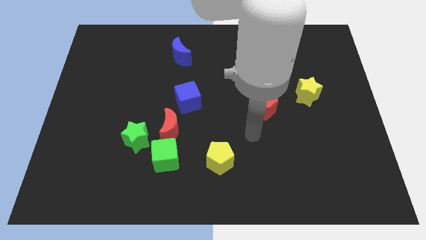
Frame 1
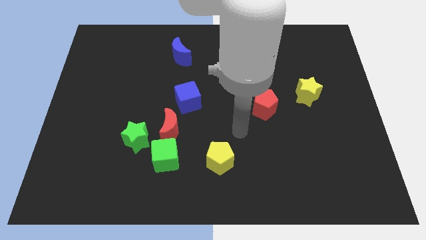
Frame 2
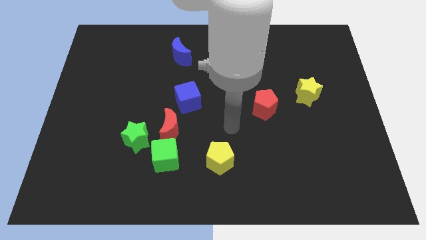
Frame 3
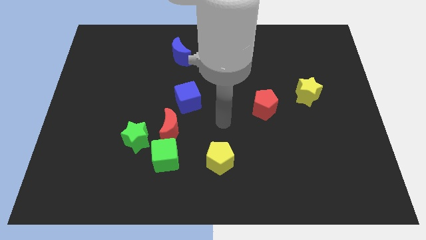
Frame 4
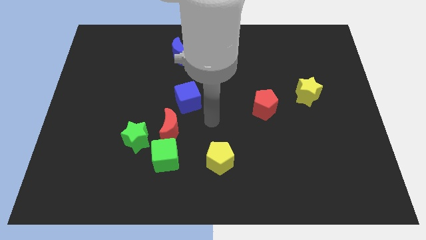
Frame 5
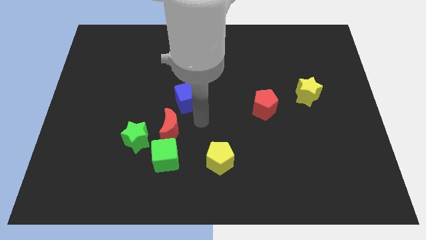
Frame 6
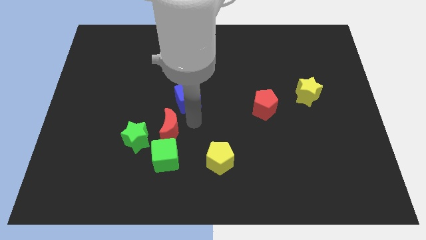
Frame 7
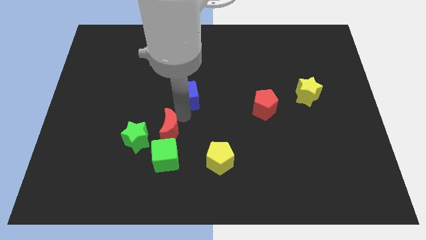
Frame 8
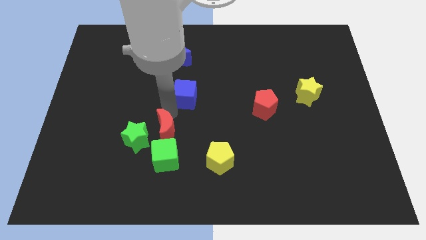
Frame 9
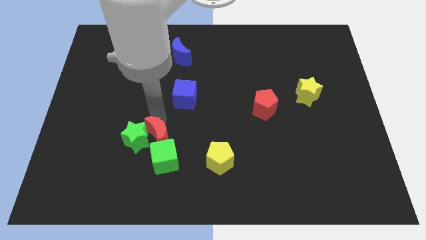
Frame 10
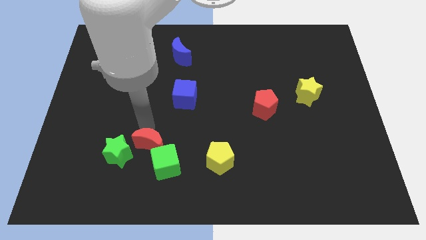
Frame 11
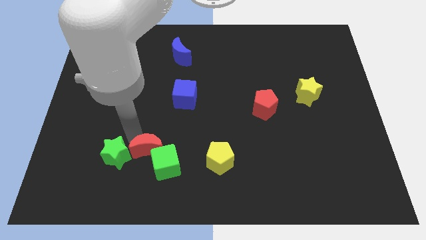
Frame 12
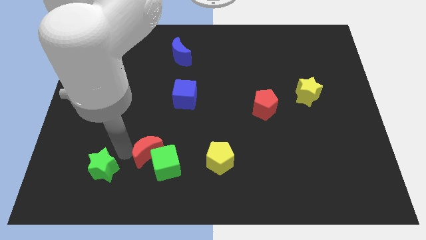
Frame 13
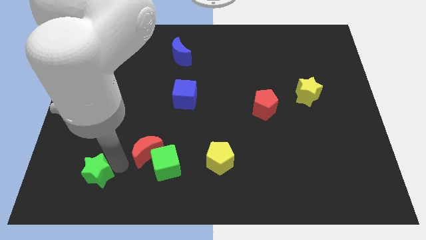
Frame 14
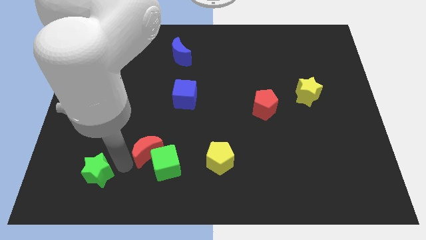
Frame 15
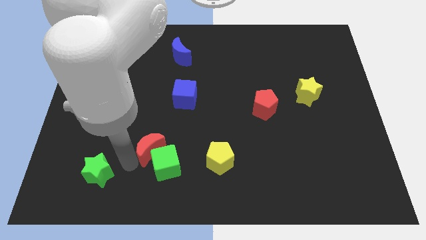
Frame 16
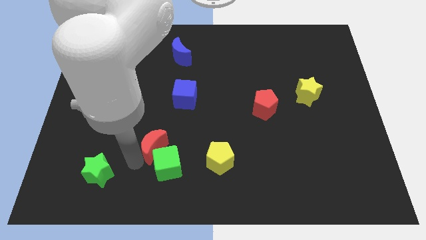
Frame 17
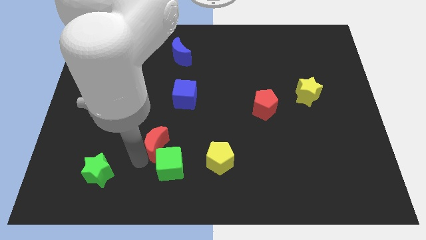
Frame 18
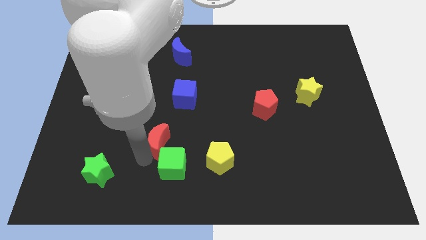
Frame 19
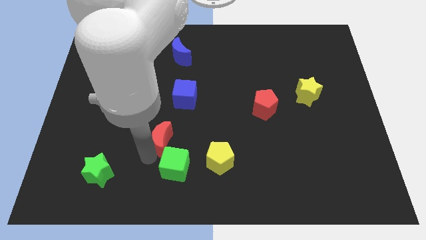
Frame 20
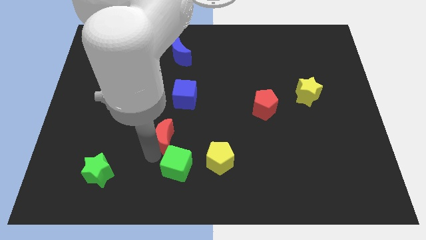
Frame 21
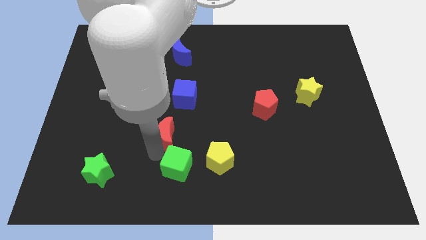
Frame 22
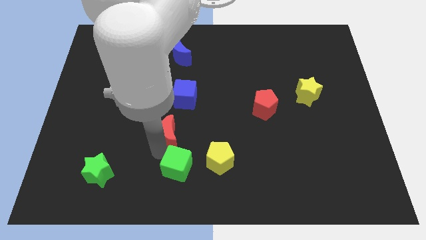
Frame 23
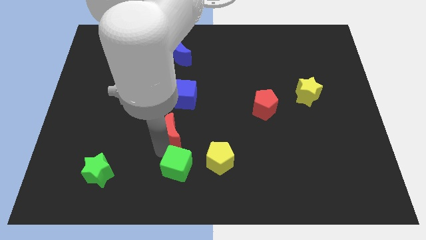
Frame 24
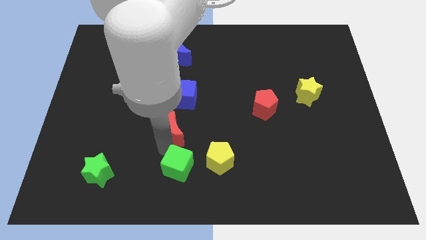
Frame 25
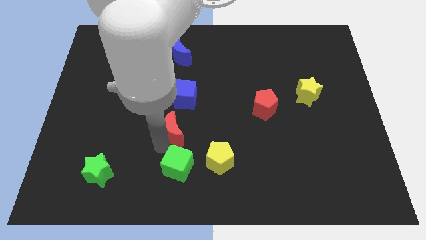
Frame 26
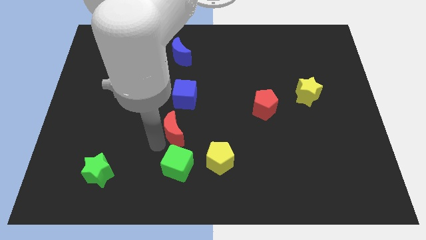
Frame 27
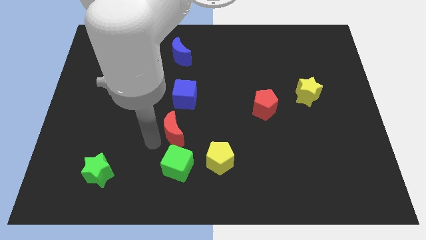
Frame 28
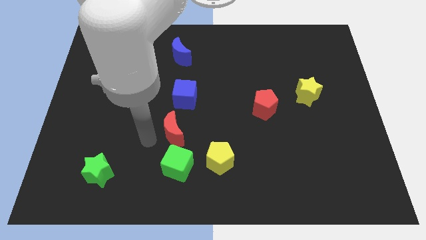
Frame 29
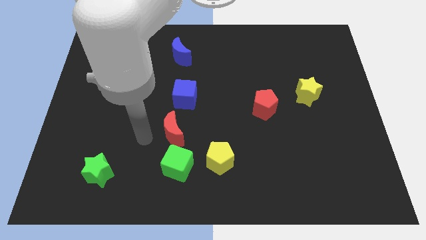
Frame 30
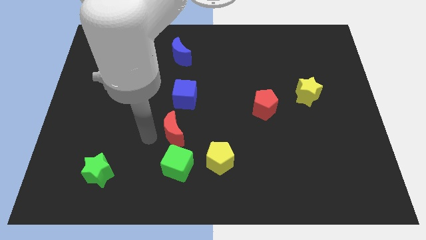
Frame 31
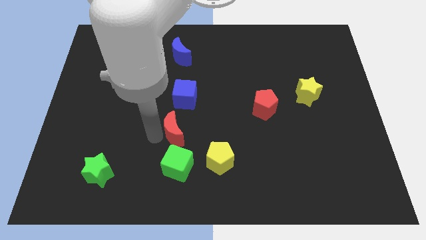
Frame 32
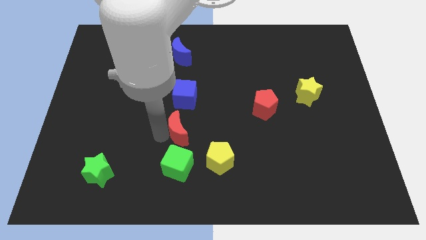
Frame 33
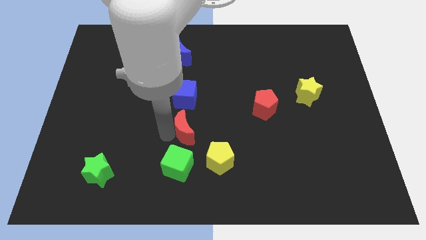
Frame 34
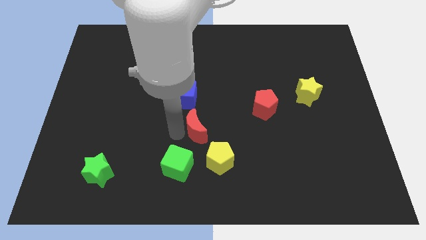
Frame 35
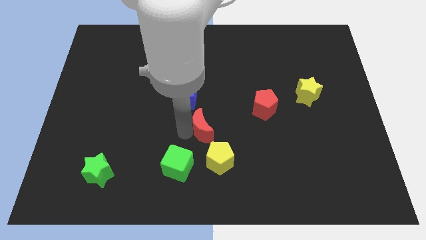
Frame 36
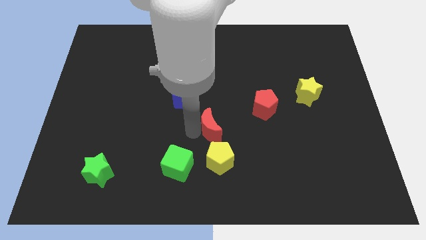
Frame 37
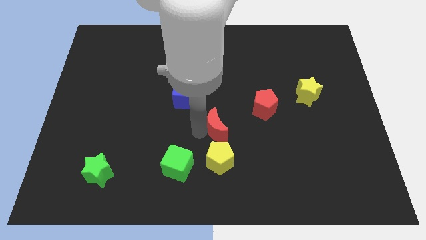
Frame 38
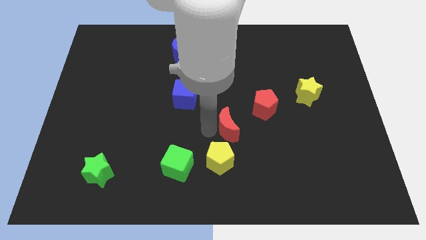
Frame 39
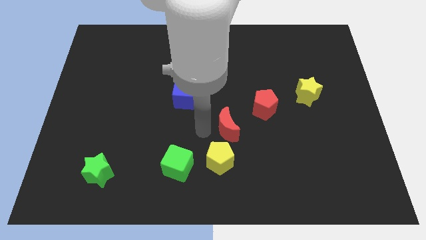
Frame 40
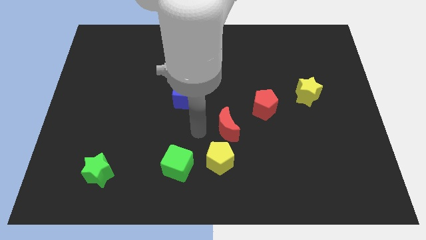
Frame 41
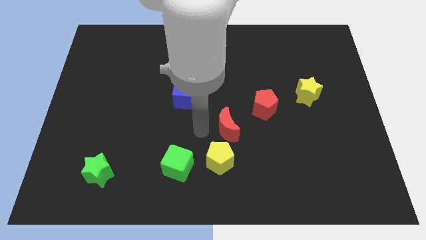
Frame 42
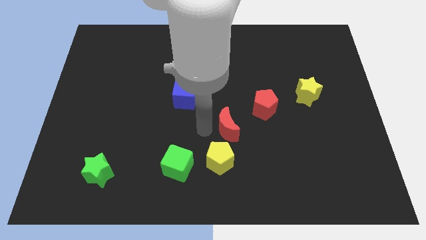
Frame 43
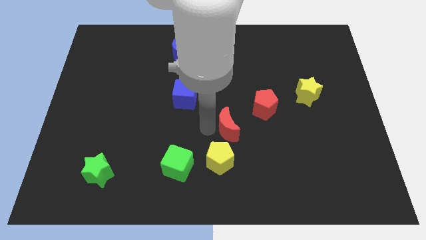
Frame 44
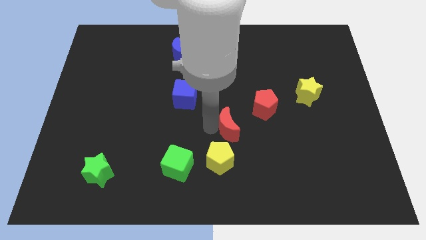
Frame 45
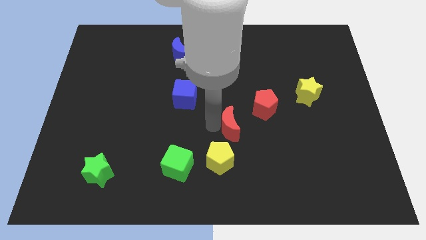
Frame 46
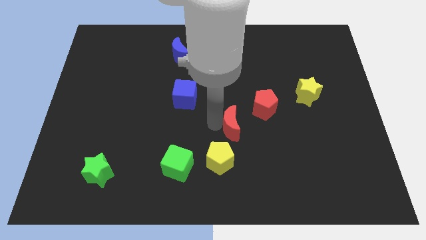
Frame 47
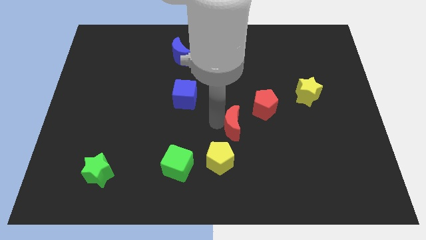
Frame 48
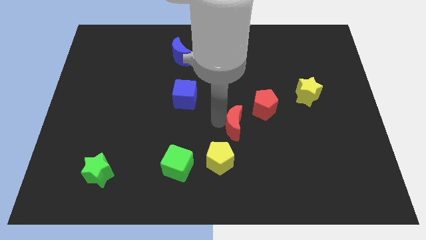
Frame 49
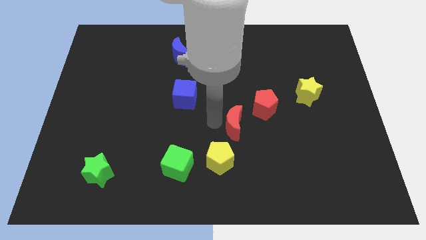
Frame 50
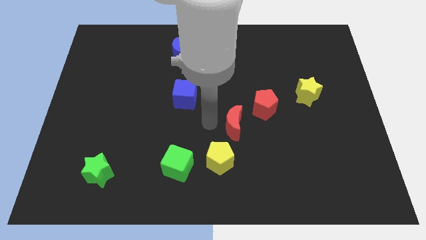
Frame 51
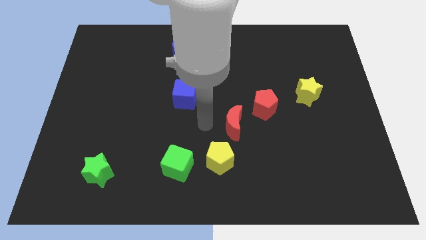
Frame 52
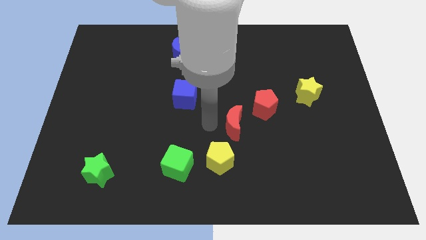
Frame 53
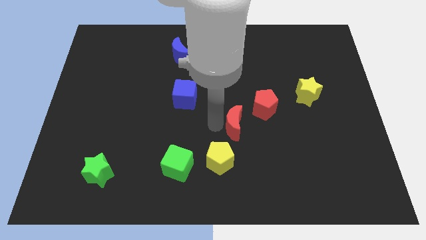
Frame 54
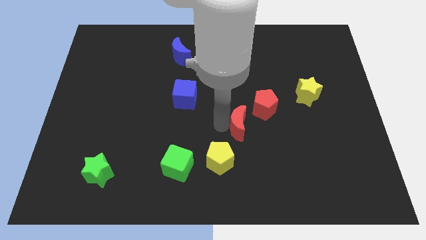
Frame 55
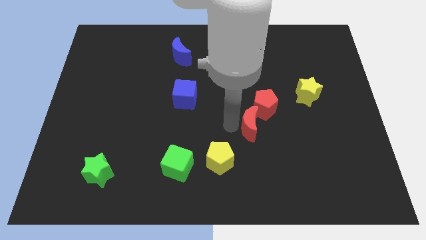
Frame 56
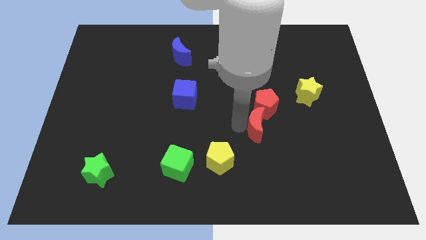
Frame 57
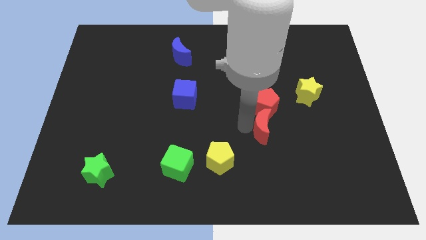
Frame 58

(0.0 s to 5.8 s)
move the red moon right

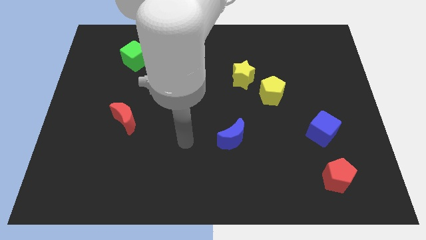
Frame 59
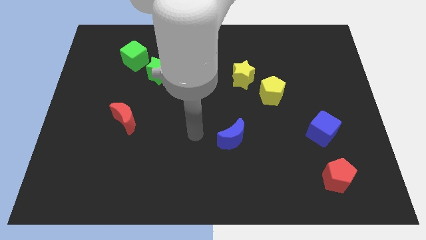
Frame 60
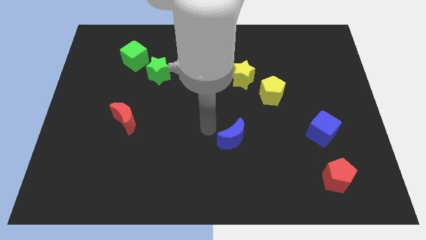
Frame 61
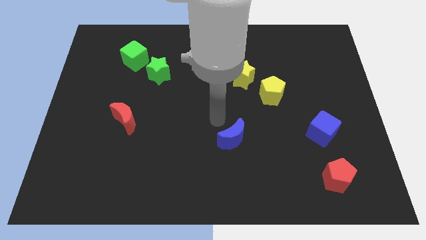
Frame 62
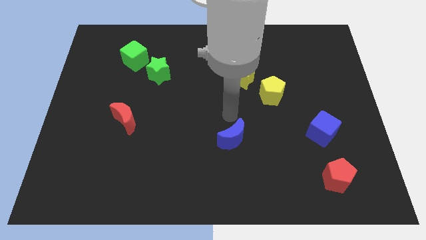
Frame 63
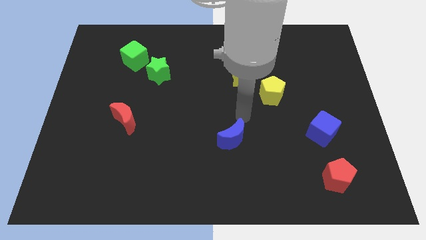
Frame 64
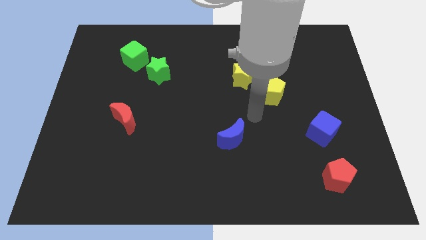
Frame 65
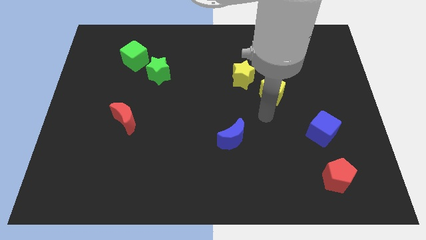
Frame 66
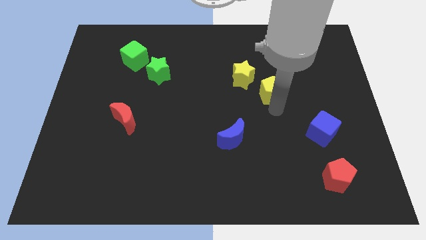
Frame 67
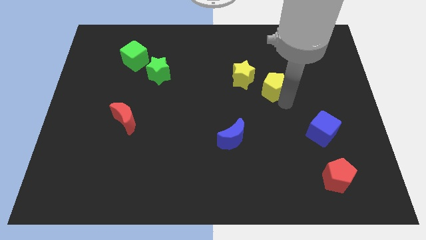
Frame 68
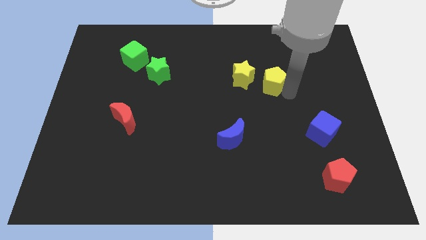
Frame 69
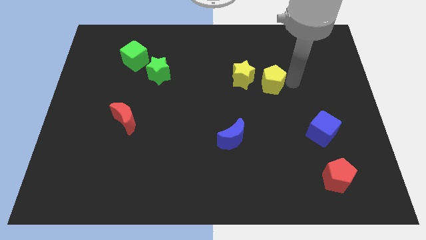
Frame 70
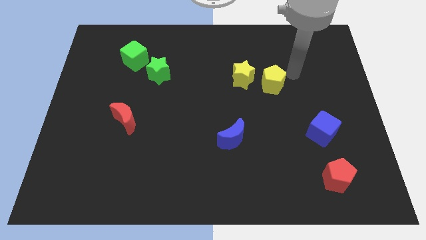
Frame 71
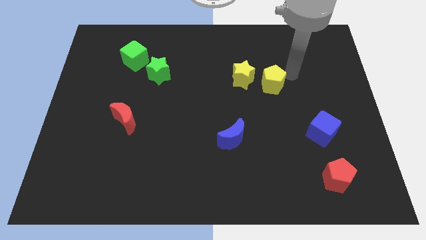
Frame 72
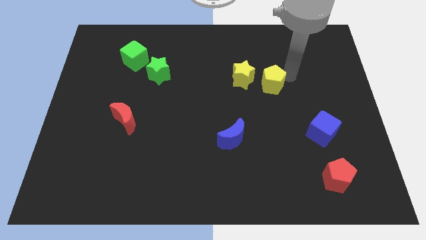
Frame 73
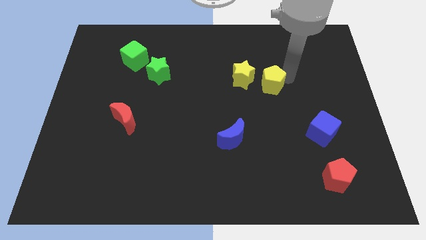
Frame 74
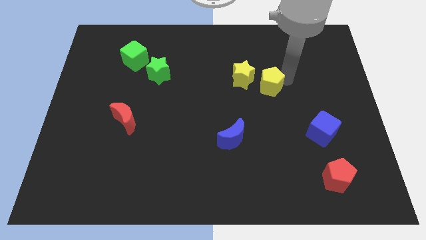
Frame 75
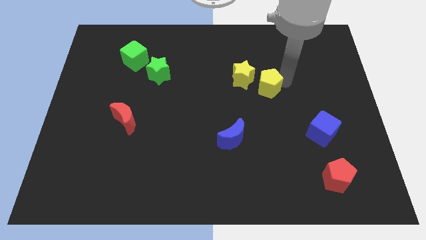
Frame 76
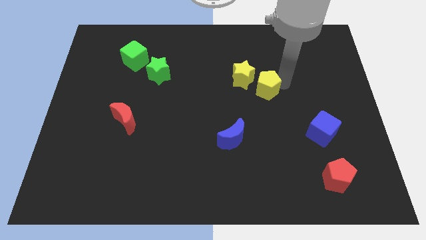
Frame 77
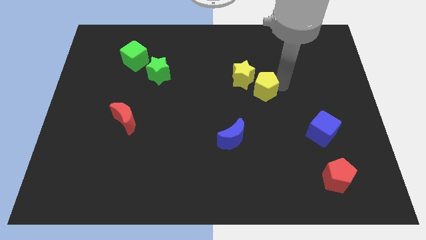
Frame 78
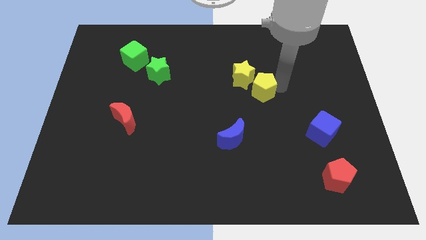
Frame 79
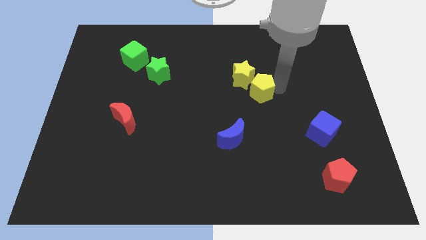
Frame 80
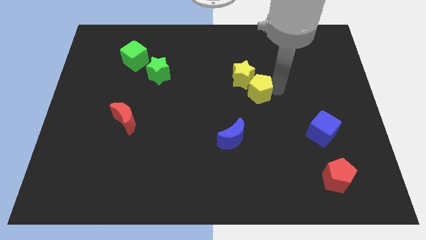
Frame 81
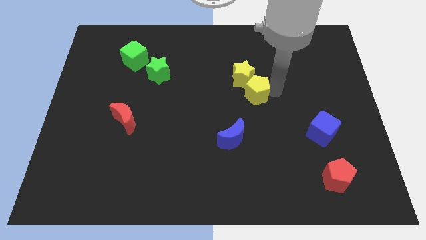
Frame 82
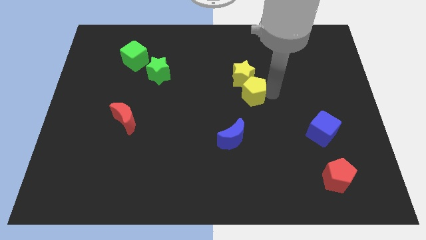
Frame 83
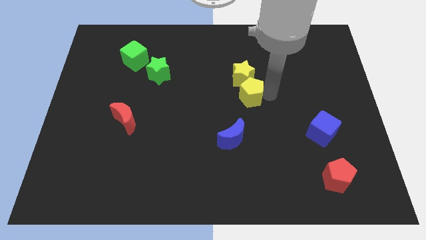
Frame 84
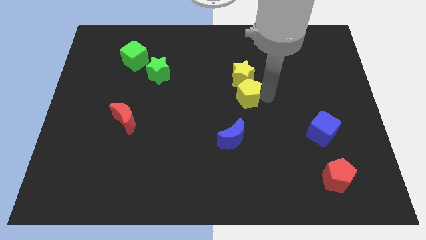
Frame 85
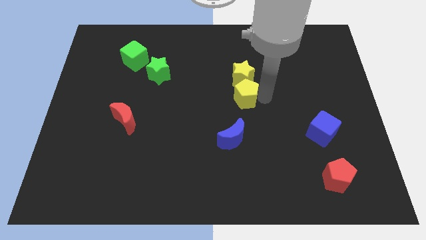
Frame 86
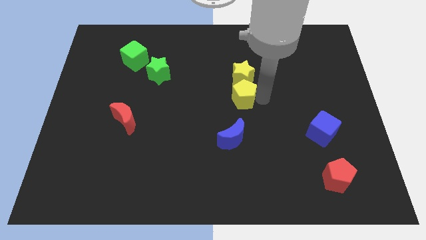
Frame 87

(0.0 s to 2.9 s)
move the yellow pentagon a little to the left
